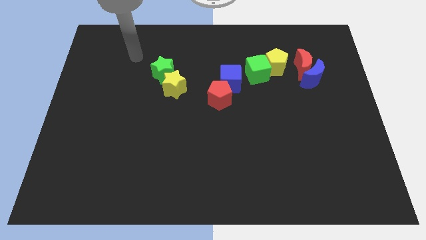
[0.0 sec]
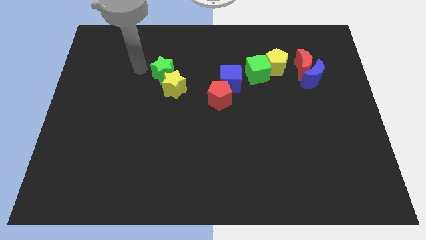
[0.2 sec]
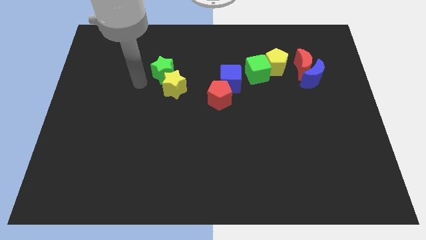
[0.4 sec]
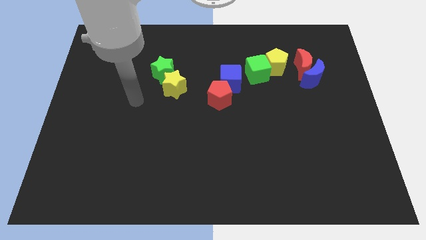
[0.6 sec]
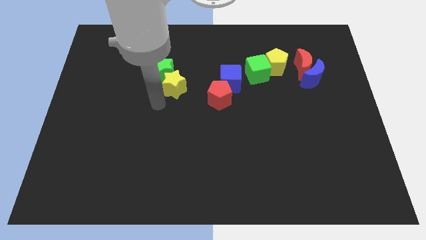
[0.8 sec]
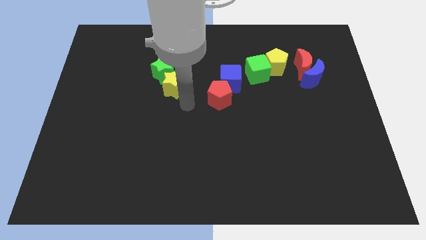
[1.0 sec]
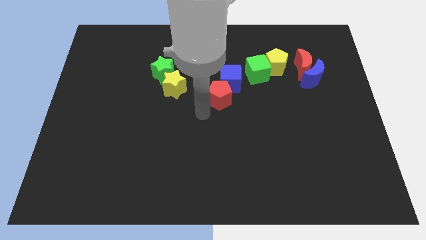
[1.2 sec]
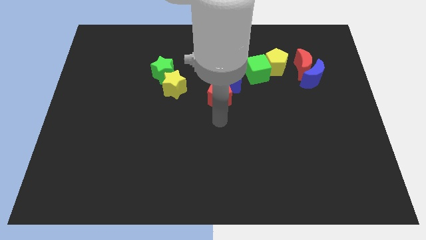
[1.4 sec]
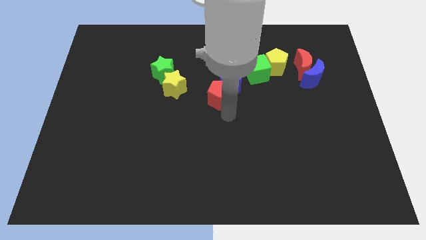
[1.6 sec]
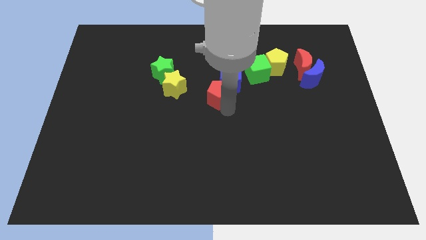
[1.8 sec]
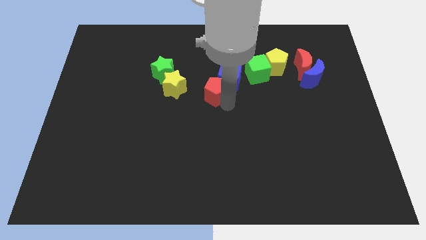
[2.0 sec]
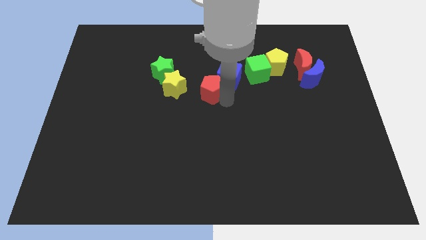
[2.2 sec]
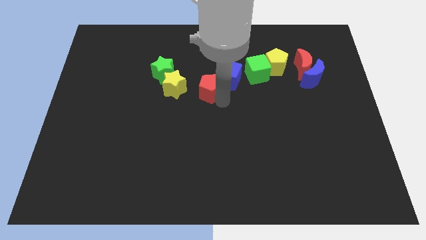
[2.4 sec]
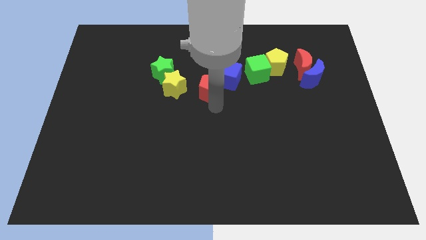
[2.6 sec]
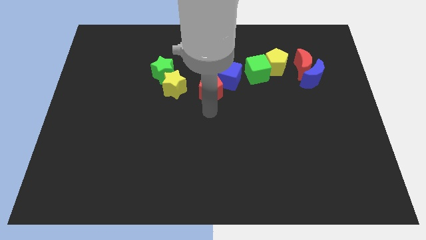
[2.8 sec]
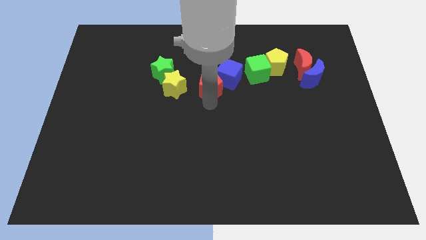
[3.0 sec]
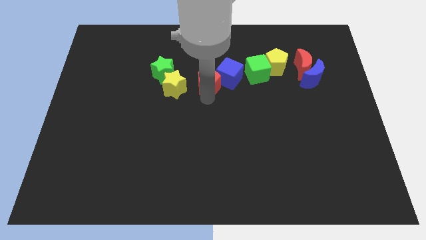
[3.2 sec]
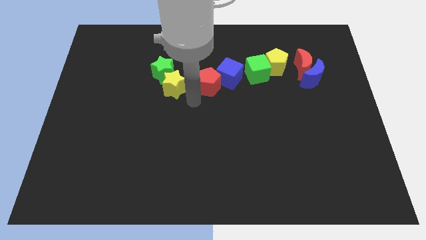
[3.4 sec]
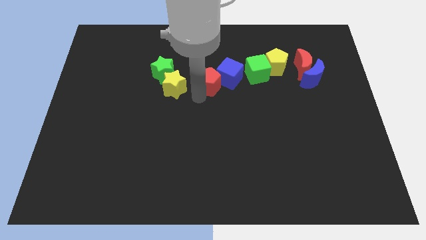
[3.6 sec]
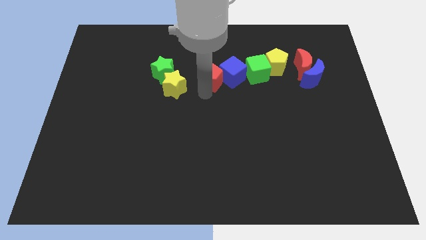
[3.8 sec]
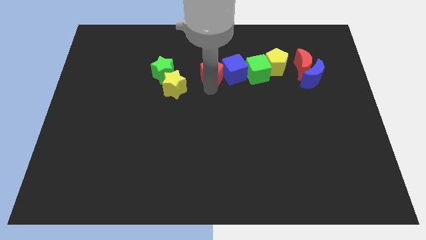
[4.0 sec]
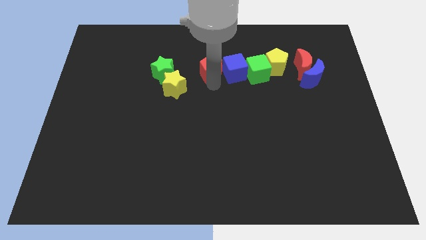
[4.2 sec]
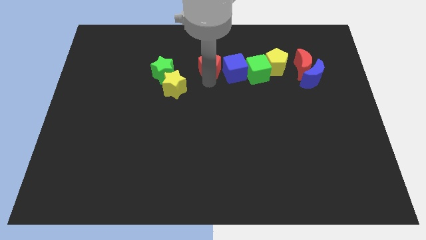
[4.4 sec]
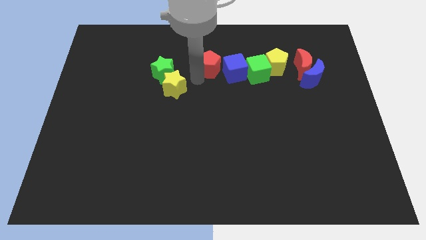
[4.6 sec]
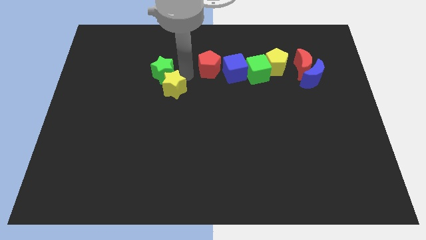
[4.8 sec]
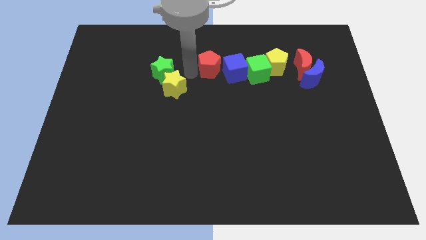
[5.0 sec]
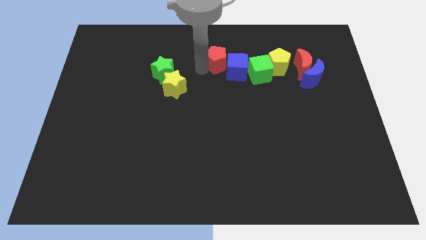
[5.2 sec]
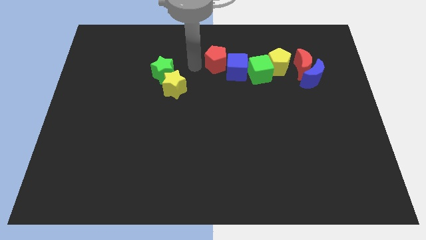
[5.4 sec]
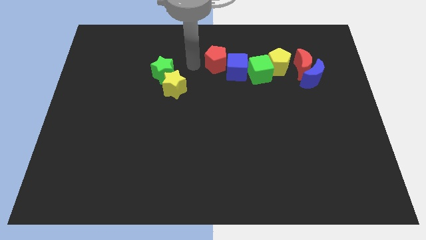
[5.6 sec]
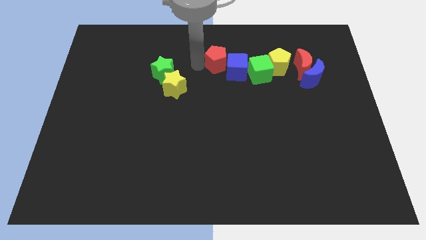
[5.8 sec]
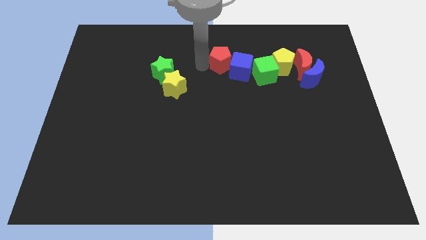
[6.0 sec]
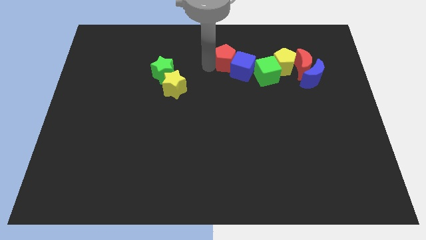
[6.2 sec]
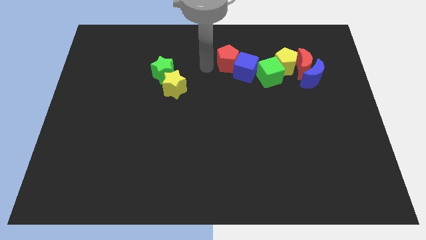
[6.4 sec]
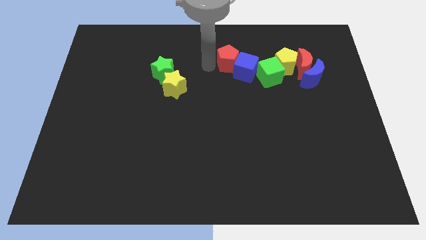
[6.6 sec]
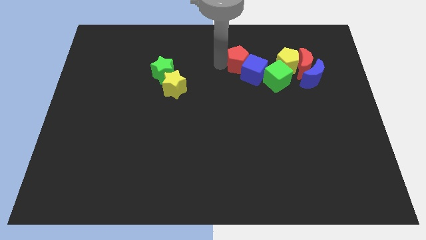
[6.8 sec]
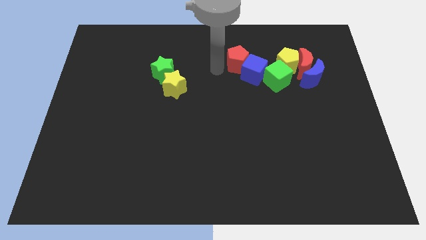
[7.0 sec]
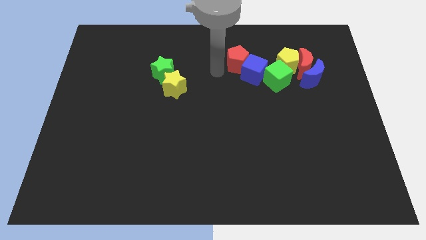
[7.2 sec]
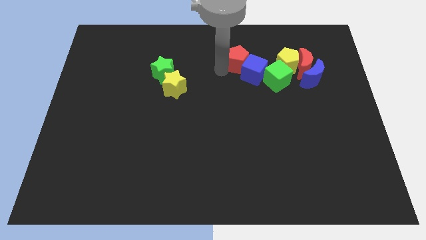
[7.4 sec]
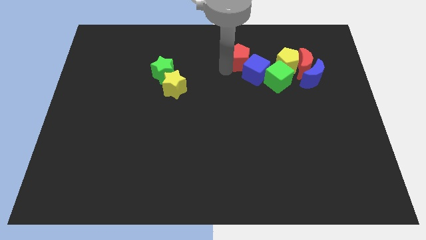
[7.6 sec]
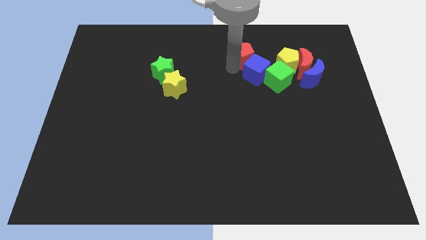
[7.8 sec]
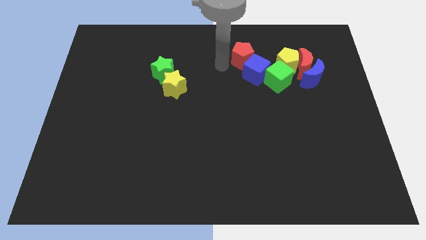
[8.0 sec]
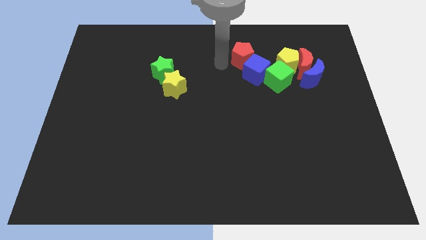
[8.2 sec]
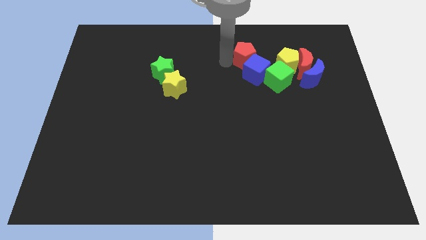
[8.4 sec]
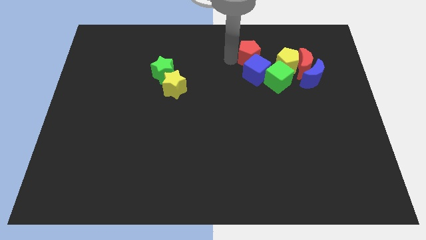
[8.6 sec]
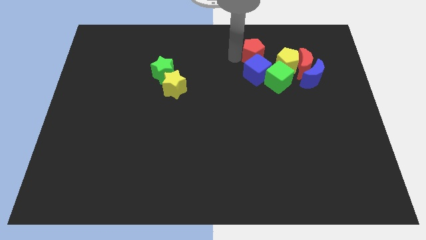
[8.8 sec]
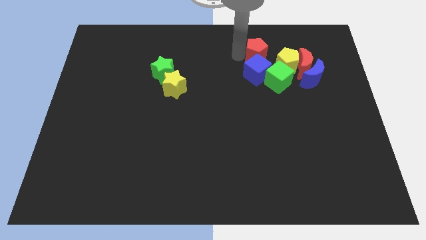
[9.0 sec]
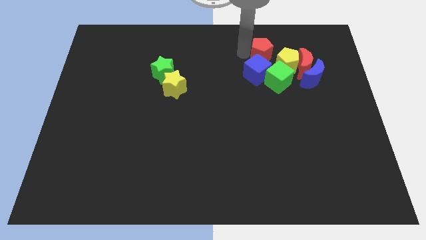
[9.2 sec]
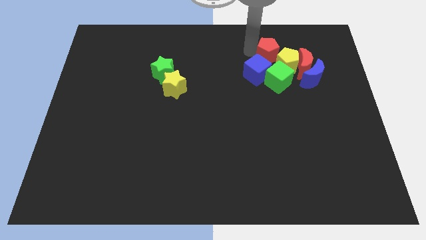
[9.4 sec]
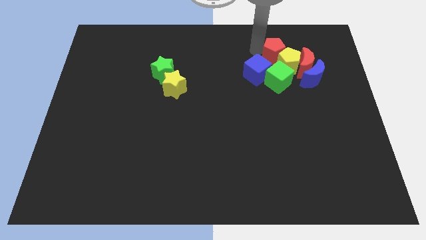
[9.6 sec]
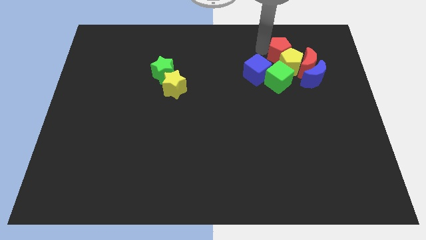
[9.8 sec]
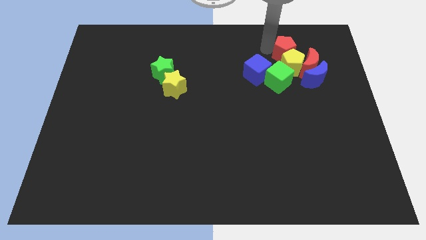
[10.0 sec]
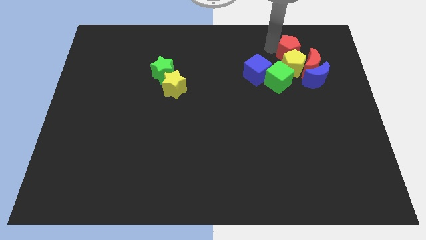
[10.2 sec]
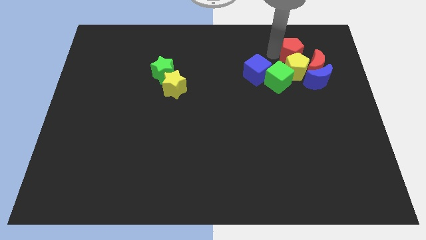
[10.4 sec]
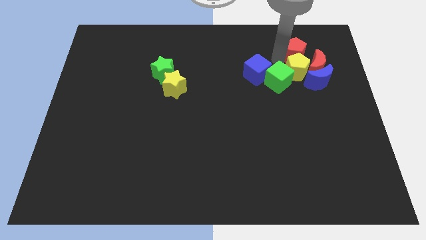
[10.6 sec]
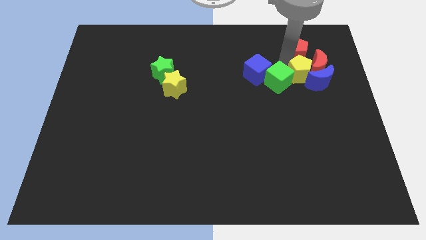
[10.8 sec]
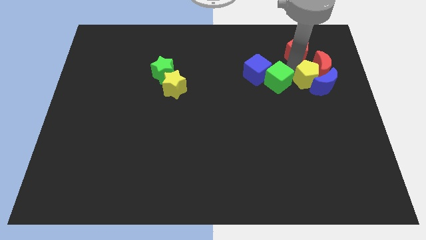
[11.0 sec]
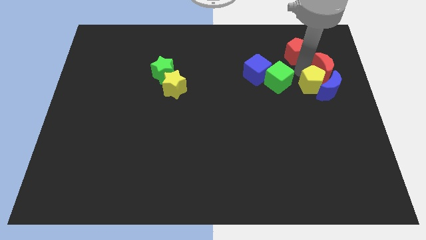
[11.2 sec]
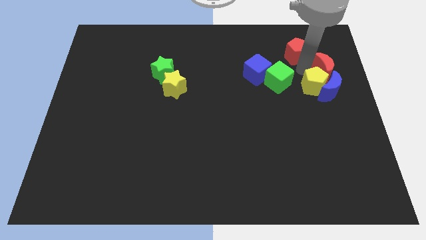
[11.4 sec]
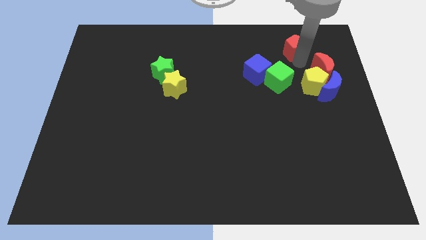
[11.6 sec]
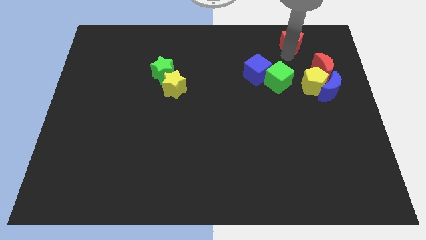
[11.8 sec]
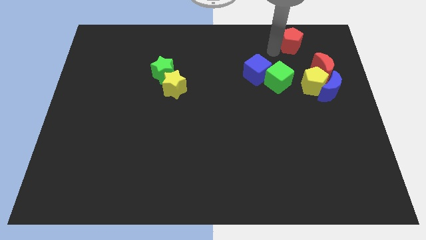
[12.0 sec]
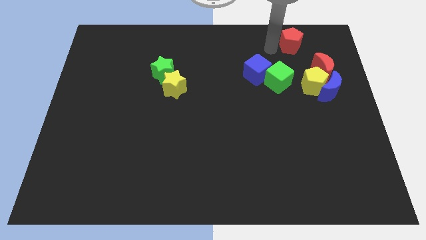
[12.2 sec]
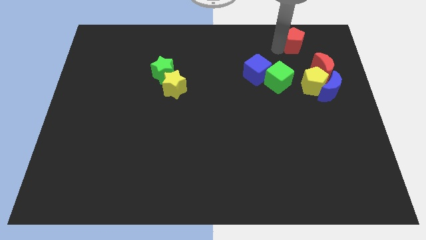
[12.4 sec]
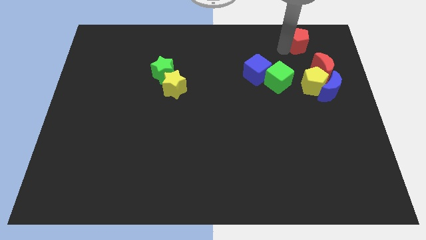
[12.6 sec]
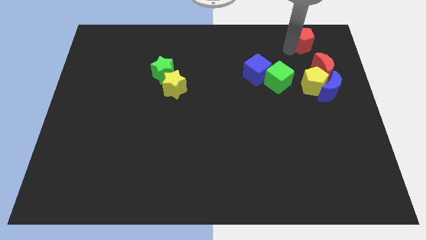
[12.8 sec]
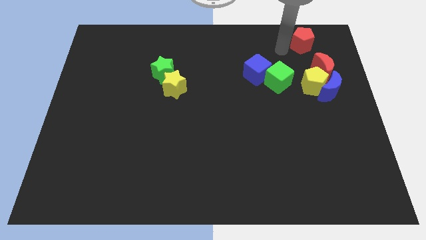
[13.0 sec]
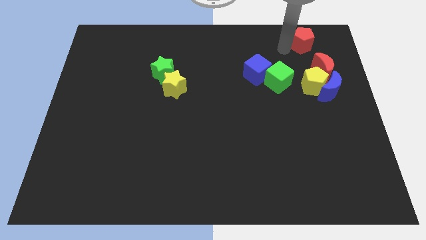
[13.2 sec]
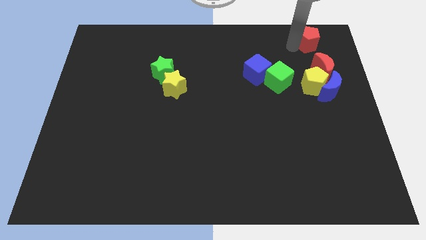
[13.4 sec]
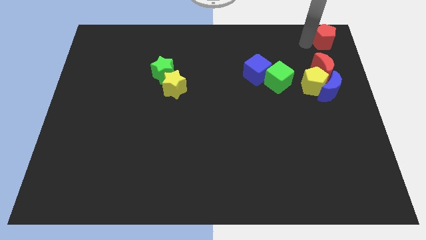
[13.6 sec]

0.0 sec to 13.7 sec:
put the red pentagon to the top right of the board

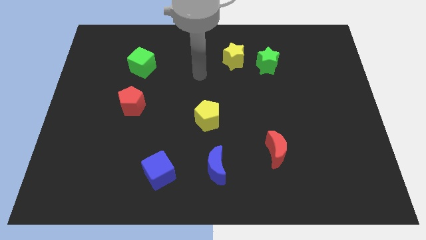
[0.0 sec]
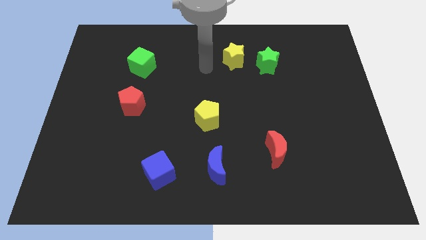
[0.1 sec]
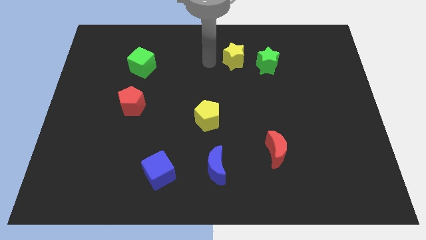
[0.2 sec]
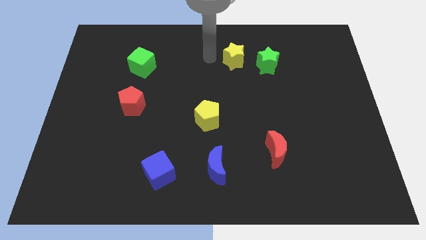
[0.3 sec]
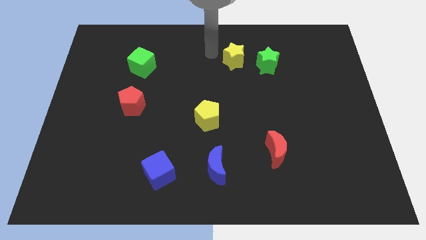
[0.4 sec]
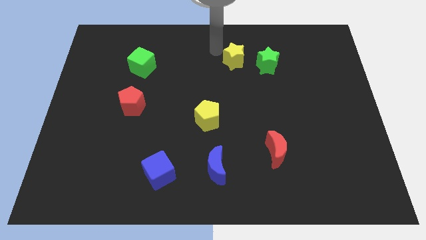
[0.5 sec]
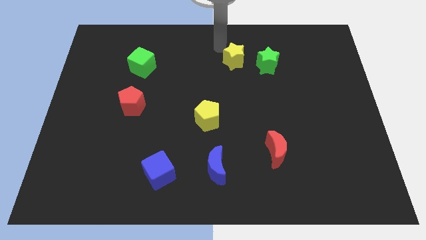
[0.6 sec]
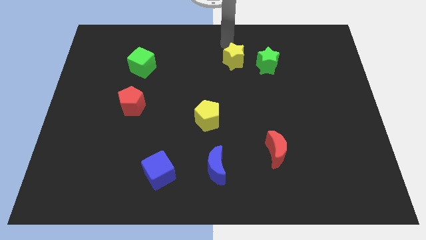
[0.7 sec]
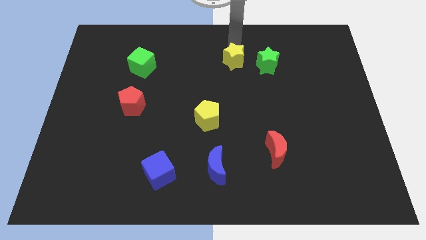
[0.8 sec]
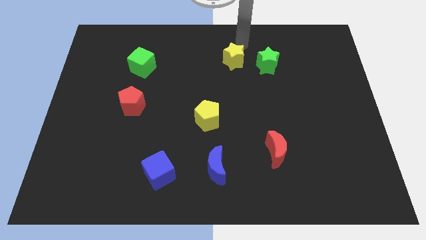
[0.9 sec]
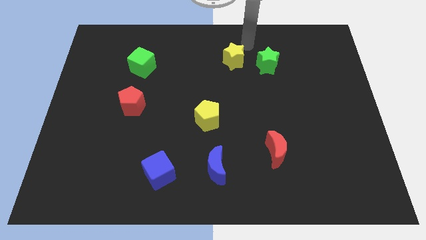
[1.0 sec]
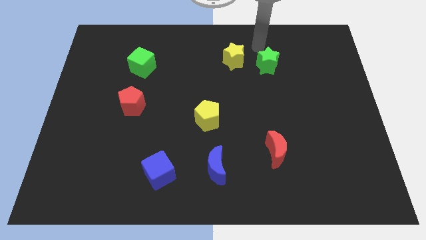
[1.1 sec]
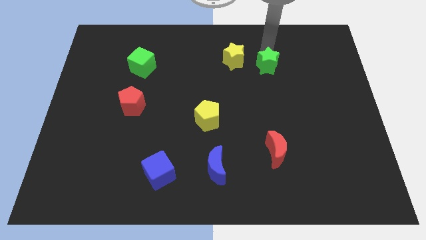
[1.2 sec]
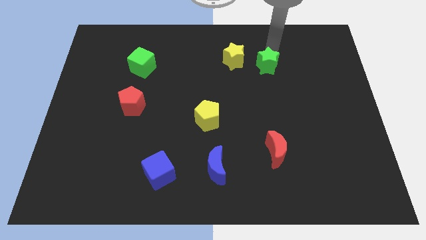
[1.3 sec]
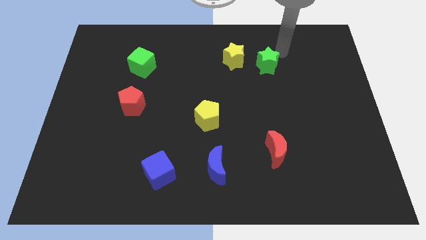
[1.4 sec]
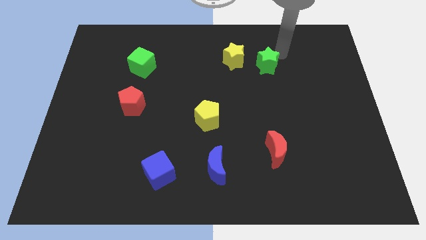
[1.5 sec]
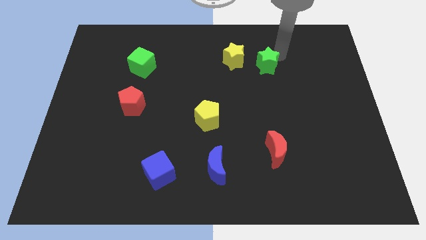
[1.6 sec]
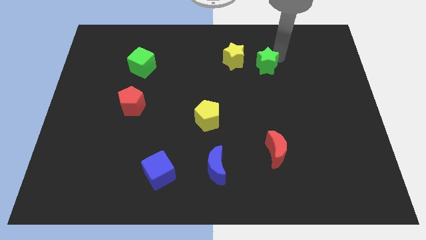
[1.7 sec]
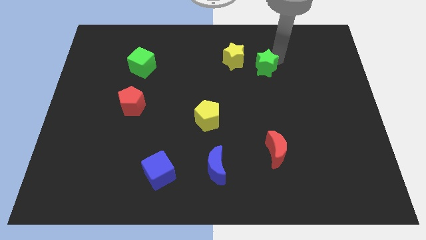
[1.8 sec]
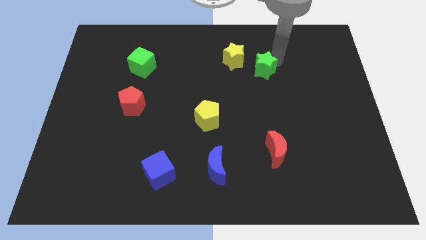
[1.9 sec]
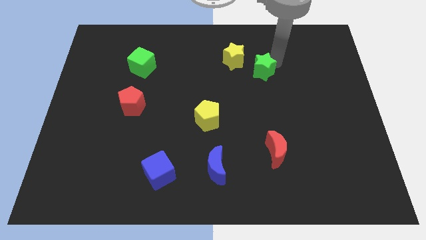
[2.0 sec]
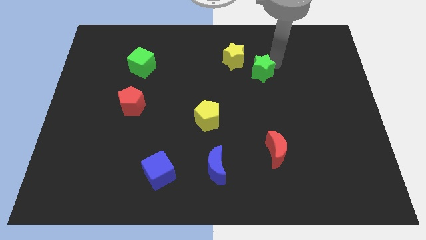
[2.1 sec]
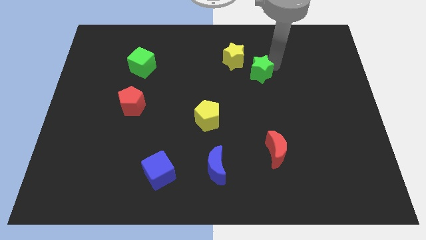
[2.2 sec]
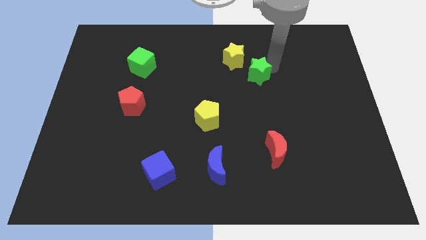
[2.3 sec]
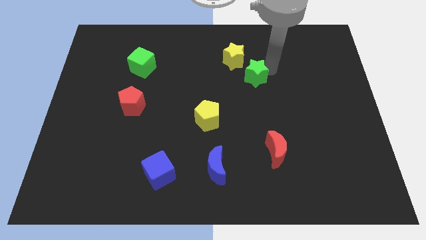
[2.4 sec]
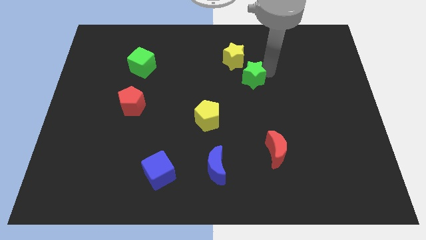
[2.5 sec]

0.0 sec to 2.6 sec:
put the green star to the middle
